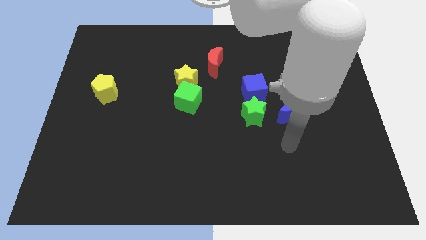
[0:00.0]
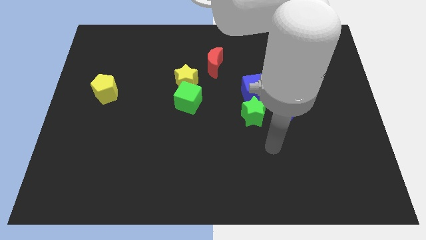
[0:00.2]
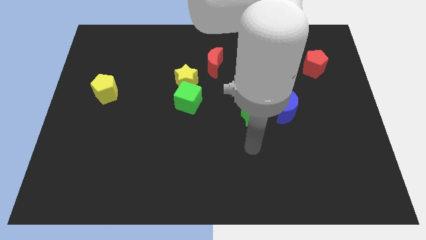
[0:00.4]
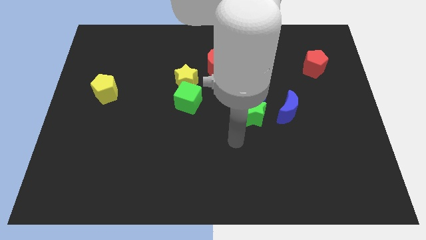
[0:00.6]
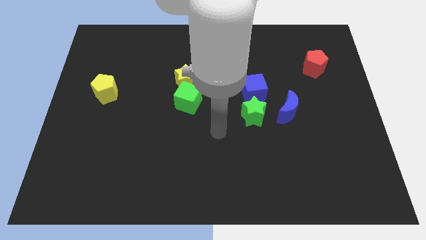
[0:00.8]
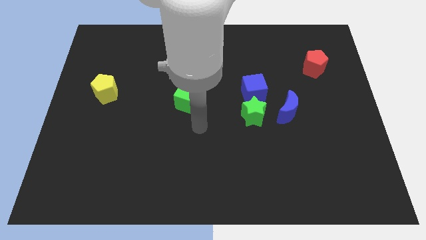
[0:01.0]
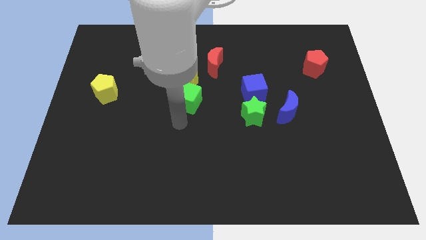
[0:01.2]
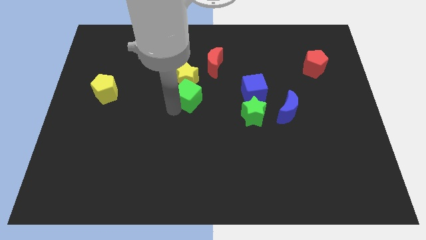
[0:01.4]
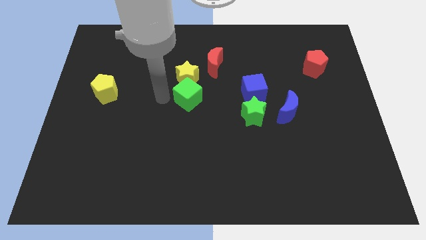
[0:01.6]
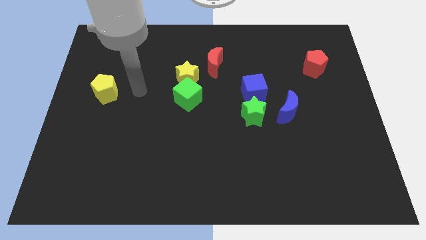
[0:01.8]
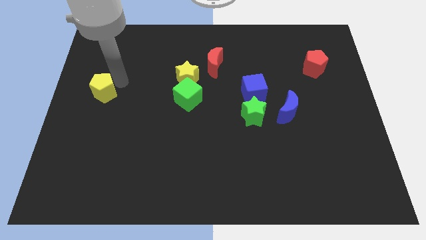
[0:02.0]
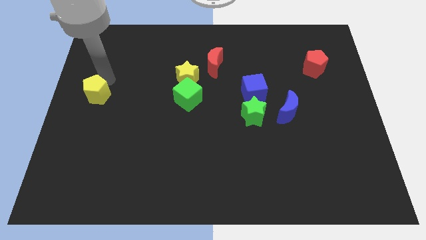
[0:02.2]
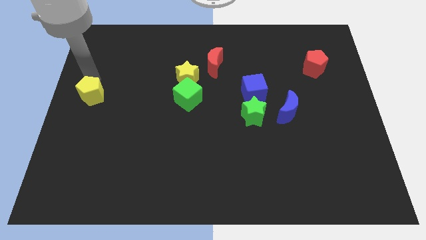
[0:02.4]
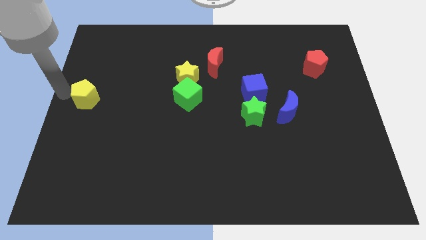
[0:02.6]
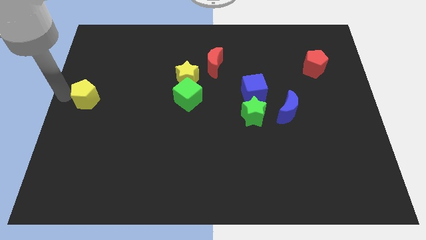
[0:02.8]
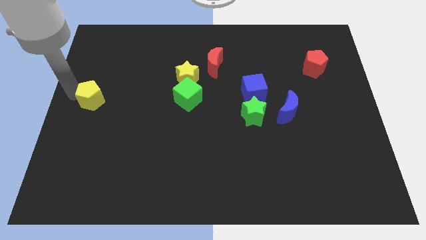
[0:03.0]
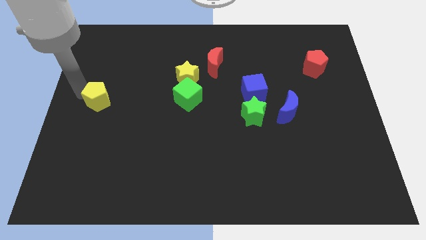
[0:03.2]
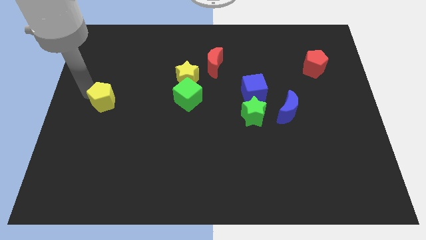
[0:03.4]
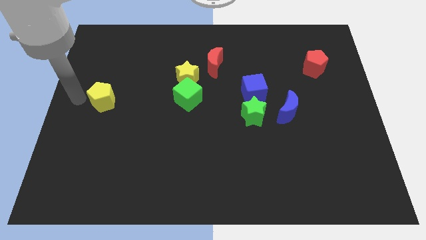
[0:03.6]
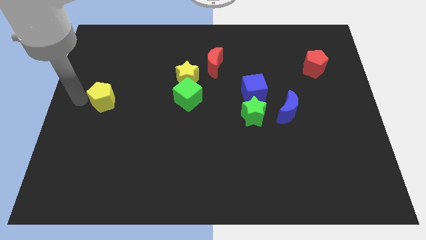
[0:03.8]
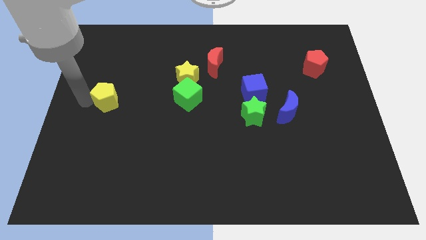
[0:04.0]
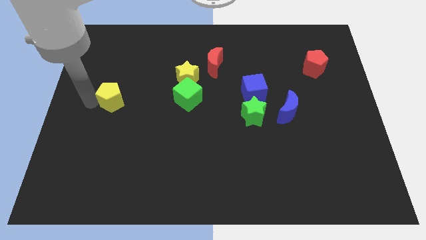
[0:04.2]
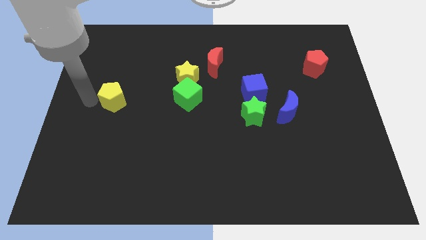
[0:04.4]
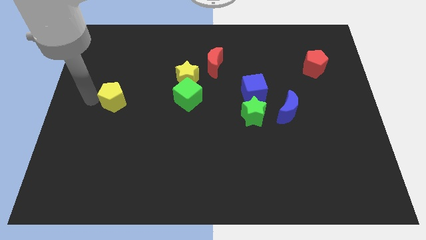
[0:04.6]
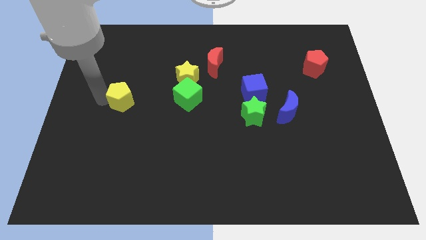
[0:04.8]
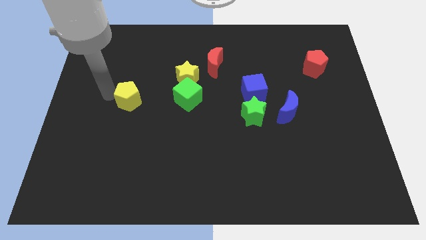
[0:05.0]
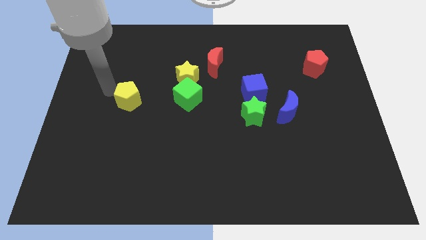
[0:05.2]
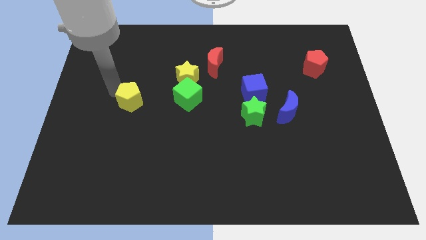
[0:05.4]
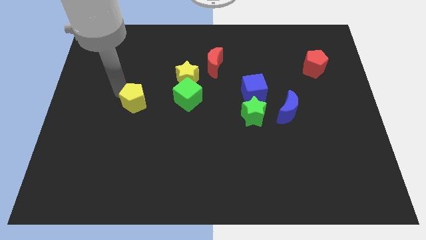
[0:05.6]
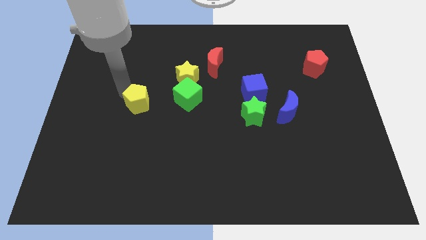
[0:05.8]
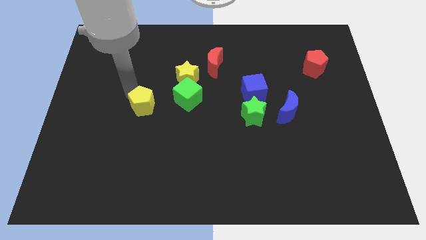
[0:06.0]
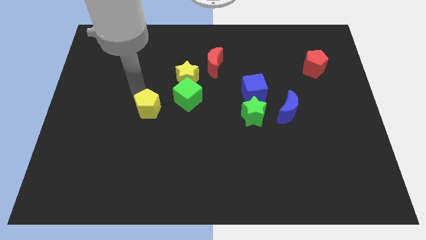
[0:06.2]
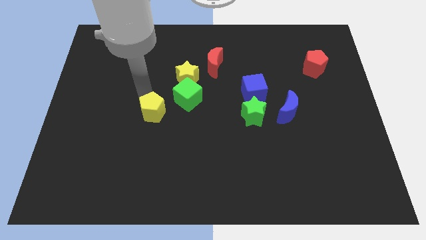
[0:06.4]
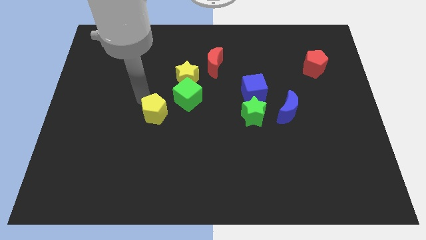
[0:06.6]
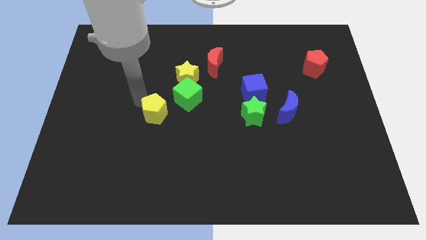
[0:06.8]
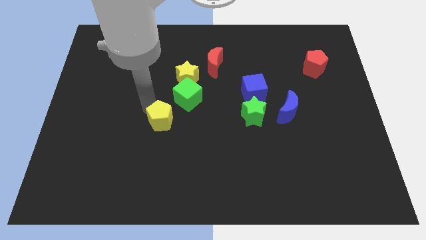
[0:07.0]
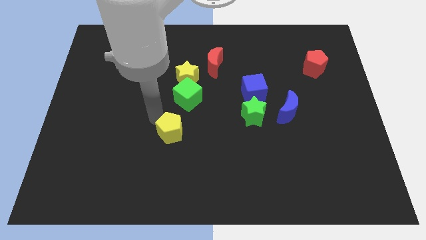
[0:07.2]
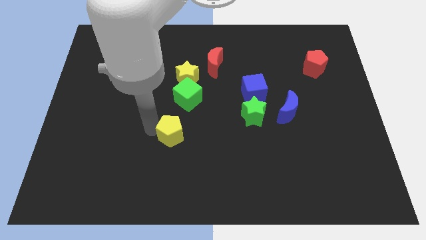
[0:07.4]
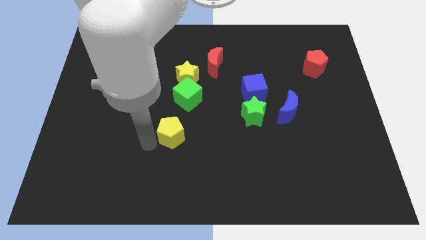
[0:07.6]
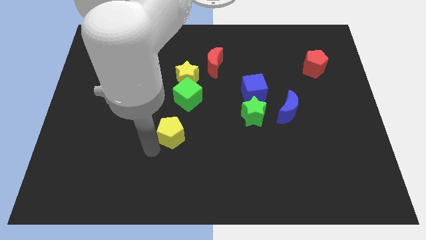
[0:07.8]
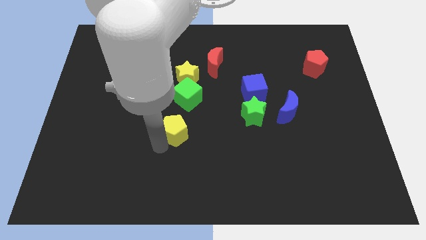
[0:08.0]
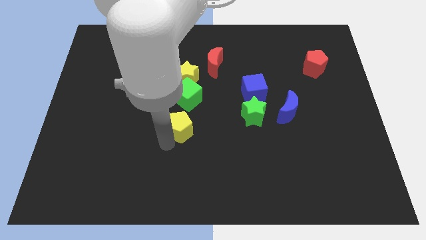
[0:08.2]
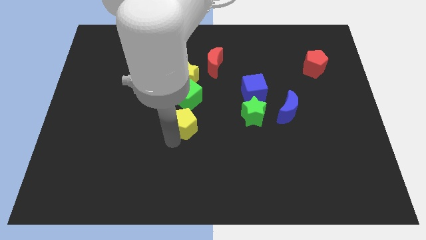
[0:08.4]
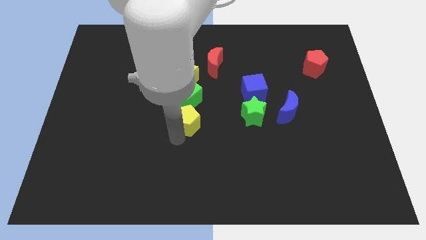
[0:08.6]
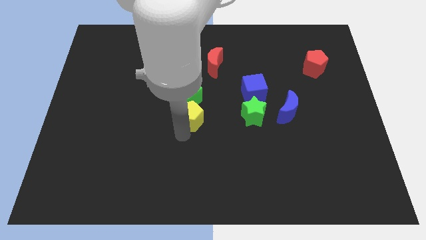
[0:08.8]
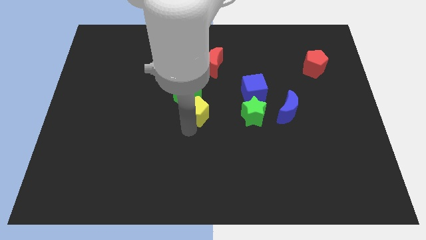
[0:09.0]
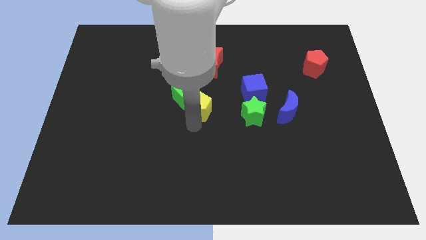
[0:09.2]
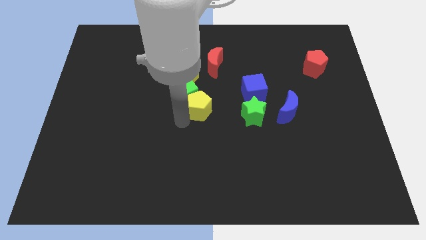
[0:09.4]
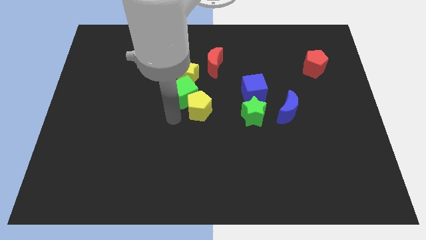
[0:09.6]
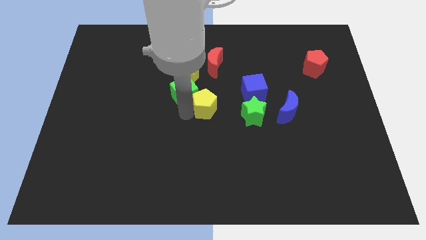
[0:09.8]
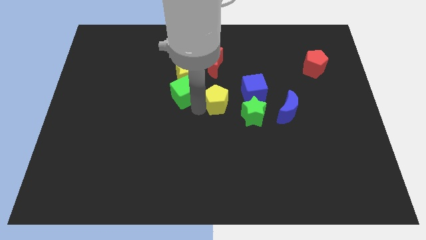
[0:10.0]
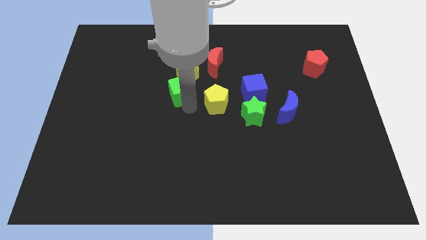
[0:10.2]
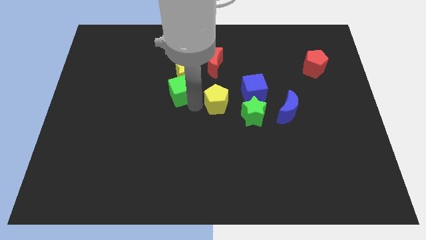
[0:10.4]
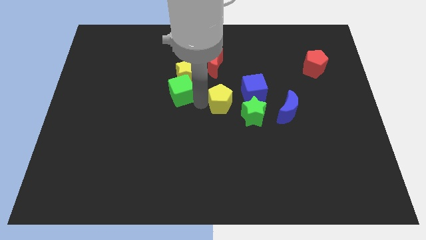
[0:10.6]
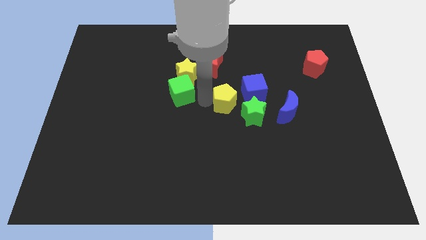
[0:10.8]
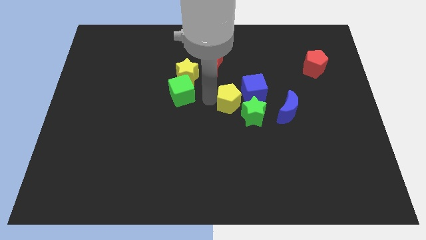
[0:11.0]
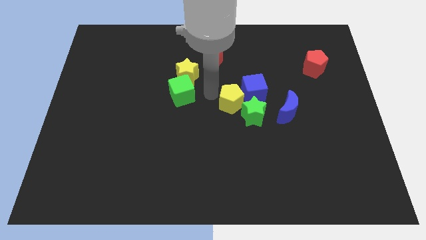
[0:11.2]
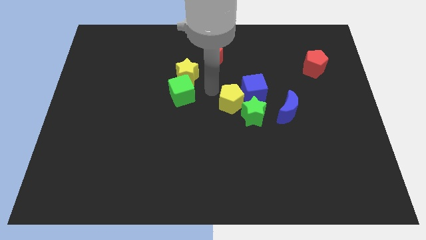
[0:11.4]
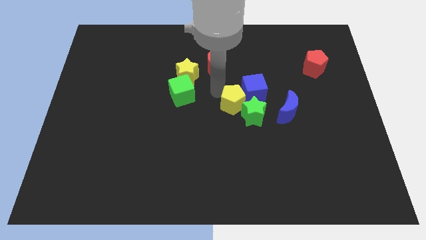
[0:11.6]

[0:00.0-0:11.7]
push the yellow pentagon to the green star

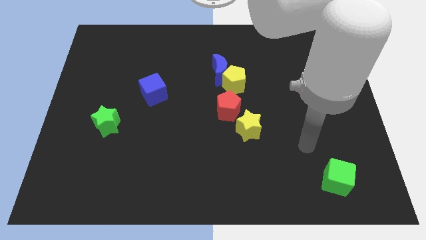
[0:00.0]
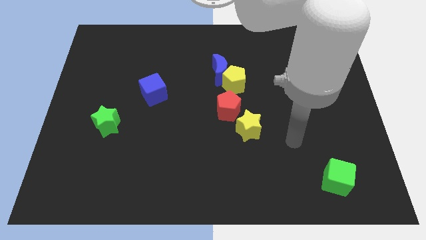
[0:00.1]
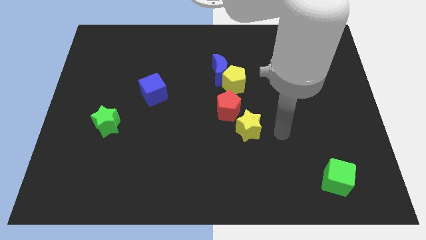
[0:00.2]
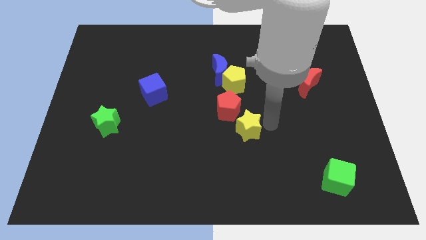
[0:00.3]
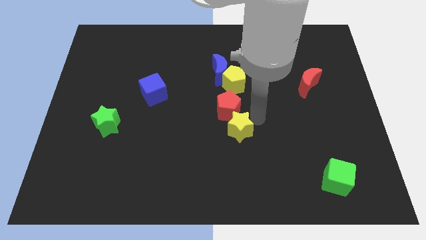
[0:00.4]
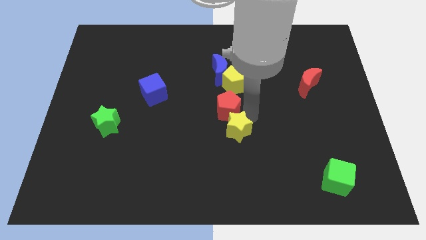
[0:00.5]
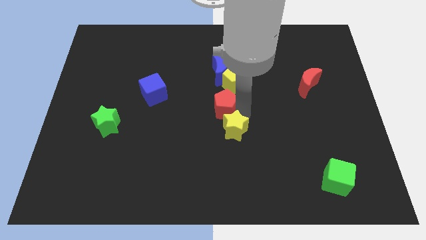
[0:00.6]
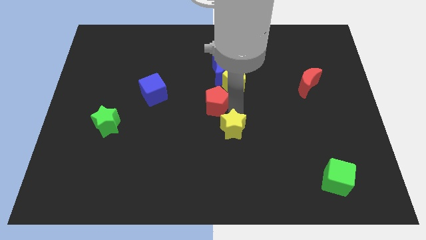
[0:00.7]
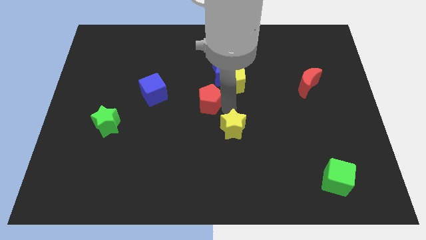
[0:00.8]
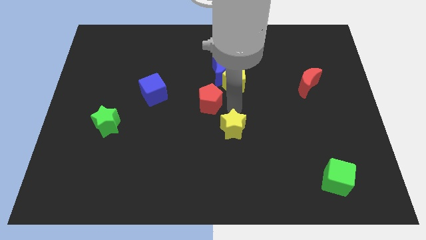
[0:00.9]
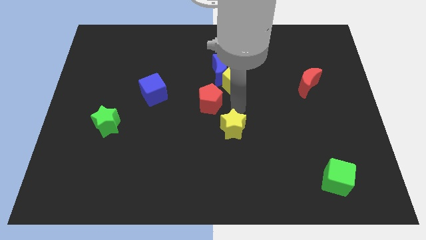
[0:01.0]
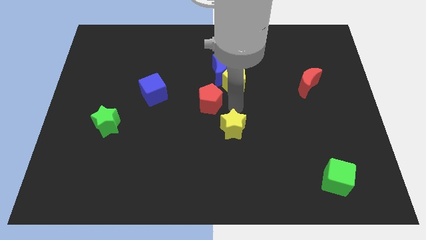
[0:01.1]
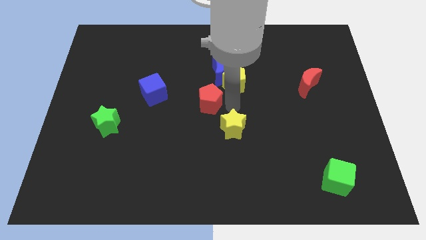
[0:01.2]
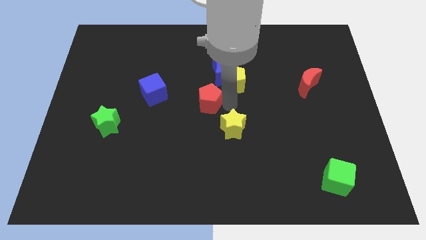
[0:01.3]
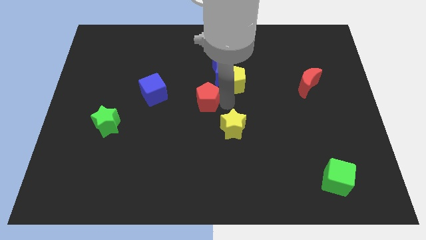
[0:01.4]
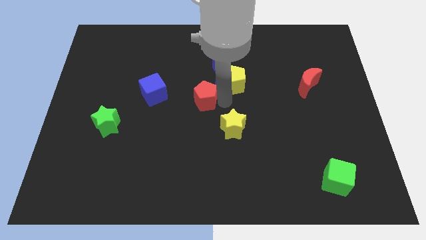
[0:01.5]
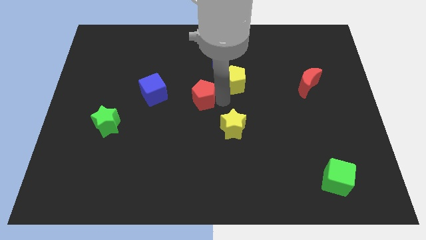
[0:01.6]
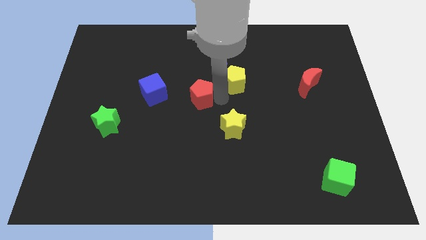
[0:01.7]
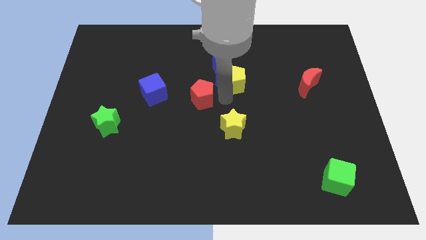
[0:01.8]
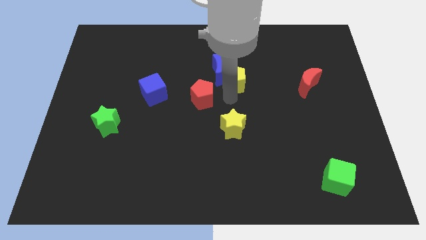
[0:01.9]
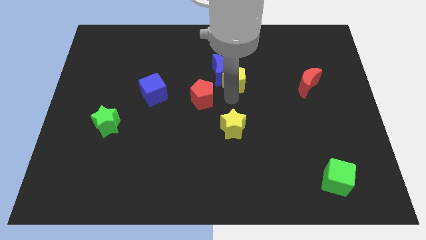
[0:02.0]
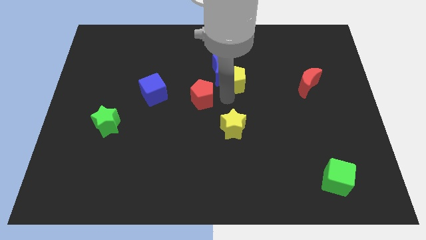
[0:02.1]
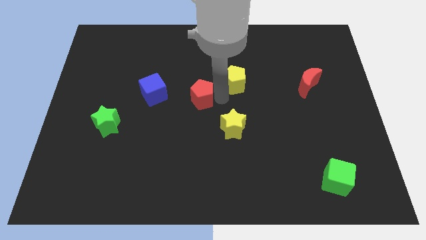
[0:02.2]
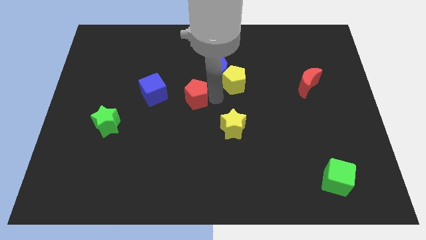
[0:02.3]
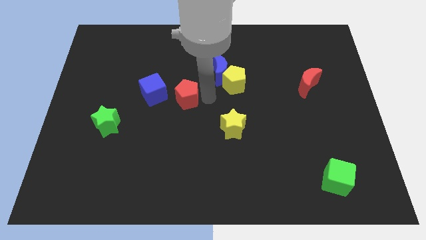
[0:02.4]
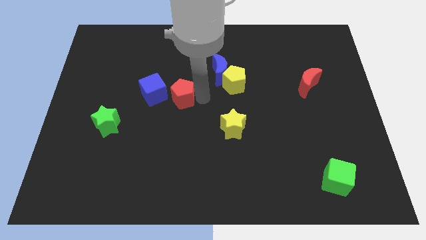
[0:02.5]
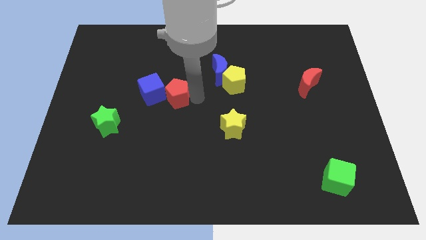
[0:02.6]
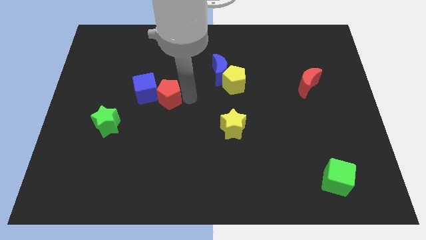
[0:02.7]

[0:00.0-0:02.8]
slide the red pentagon next to the blue cube
